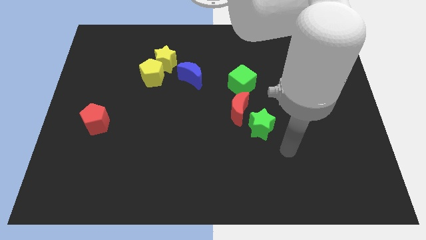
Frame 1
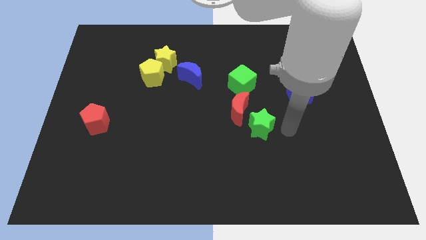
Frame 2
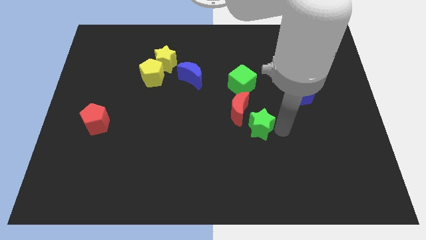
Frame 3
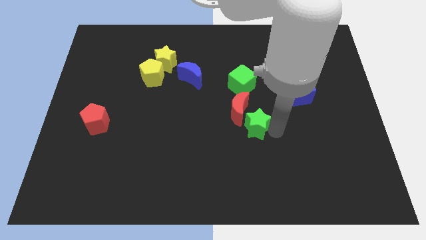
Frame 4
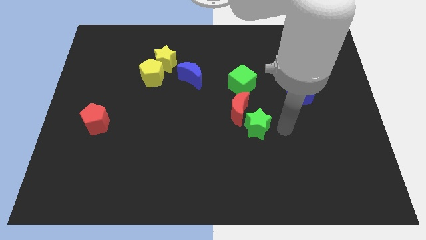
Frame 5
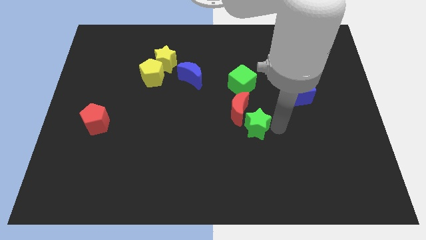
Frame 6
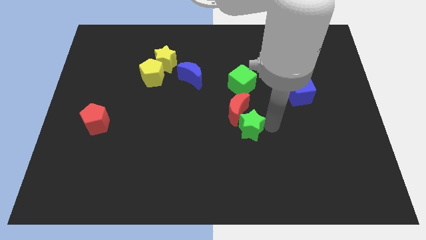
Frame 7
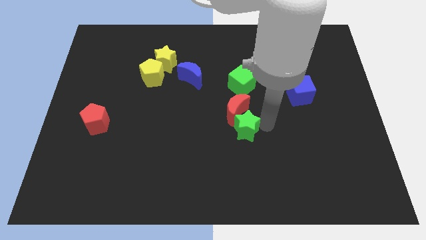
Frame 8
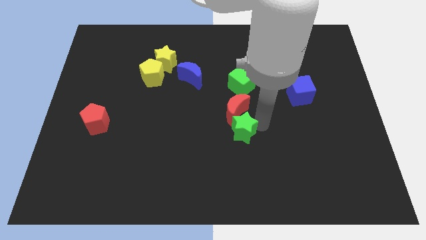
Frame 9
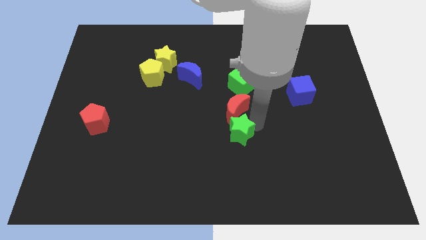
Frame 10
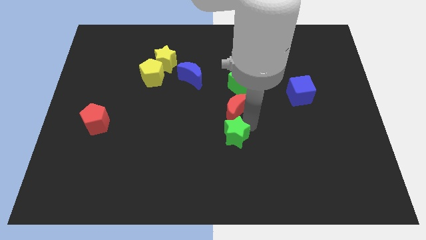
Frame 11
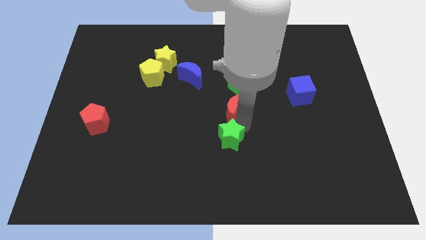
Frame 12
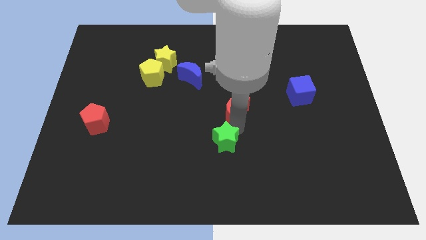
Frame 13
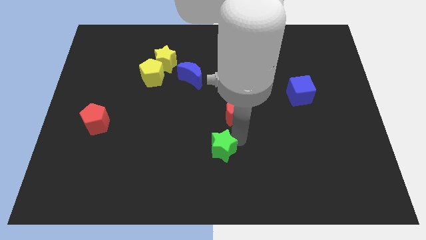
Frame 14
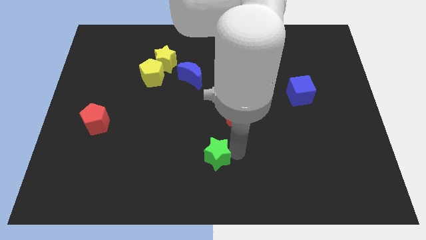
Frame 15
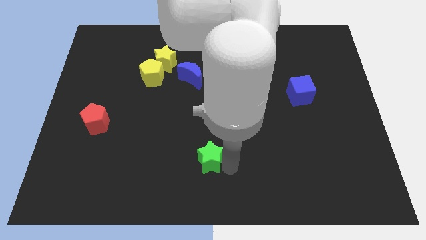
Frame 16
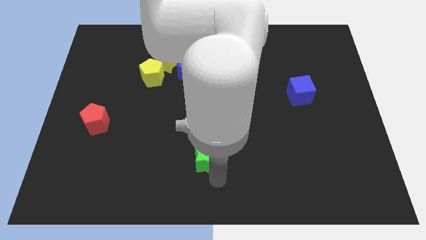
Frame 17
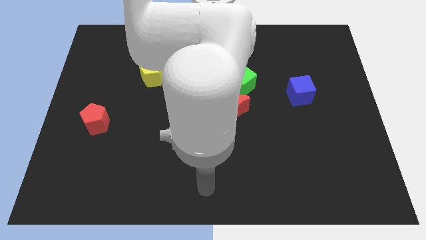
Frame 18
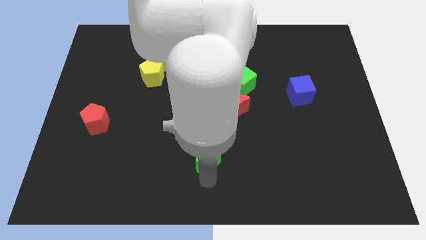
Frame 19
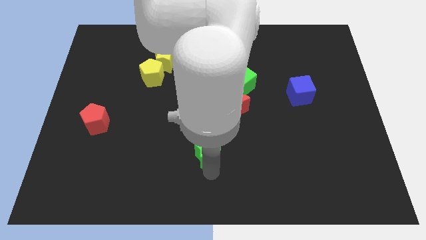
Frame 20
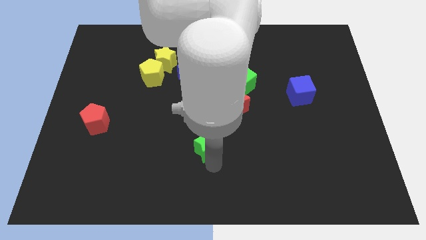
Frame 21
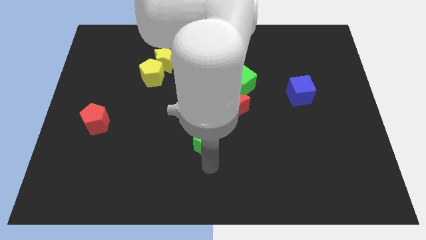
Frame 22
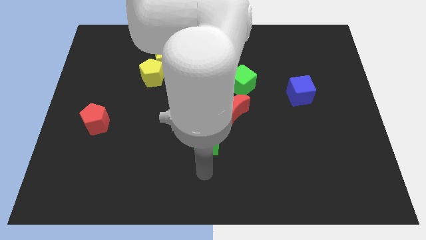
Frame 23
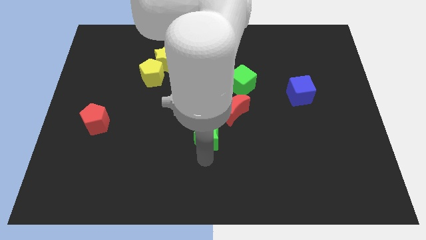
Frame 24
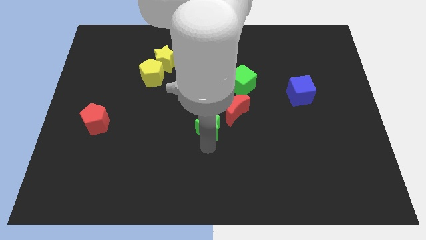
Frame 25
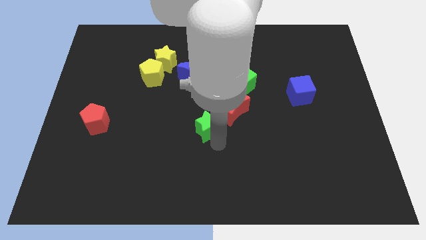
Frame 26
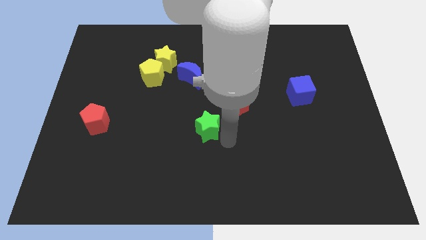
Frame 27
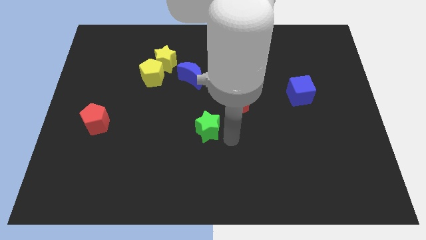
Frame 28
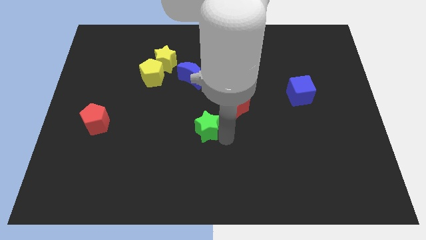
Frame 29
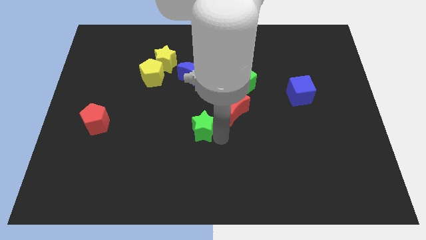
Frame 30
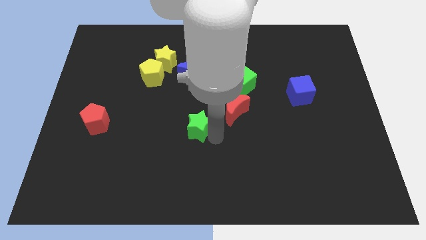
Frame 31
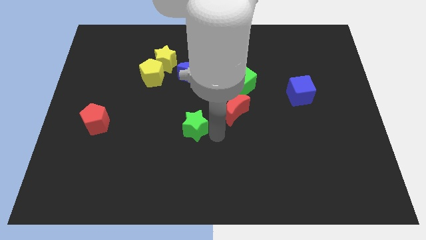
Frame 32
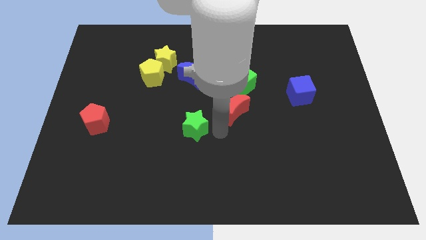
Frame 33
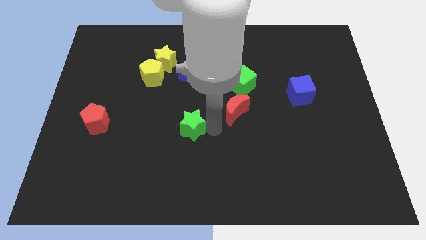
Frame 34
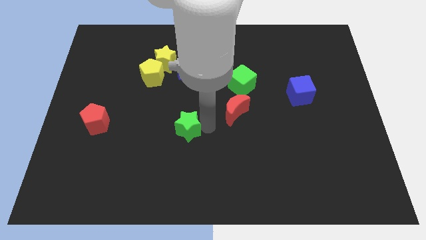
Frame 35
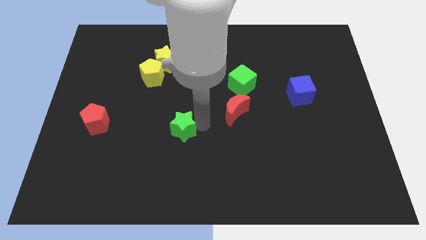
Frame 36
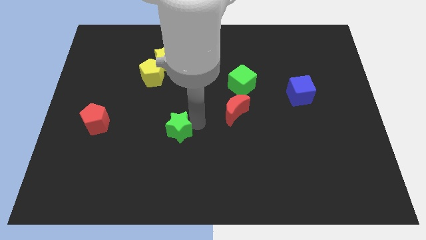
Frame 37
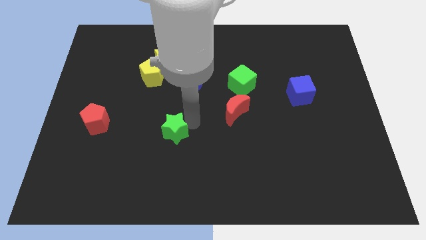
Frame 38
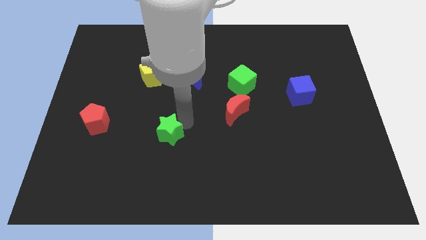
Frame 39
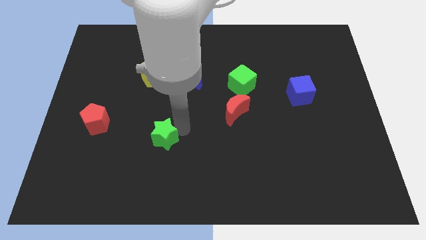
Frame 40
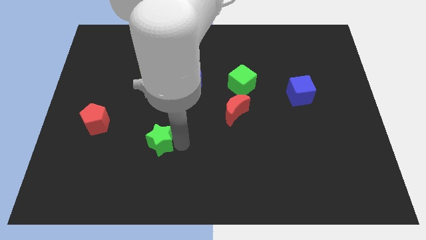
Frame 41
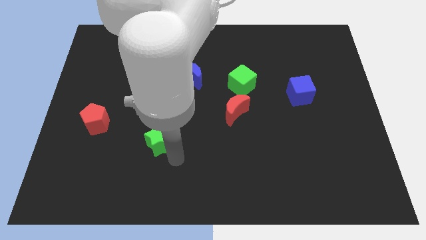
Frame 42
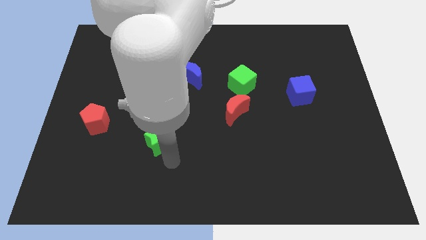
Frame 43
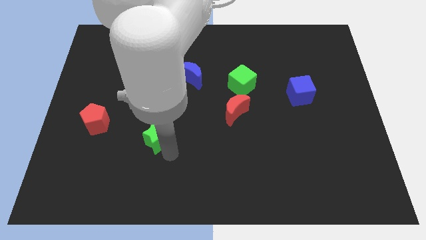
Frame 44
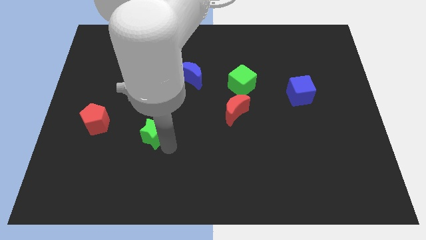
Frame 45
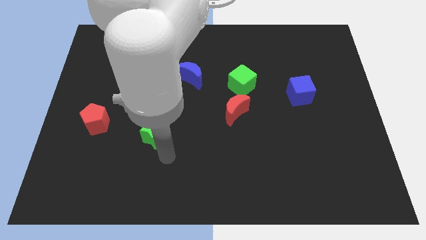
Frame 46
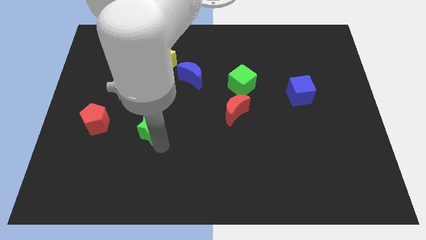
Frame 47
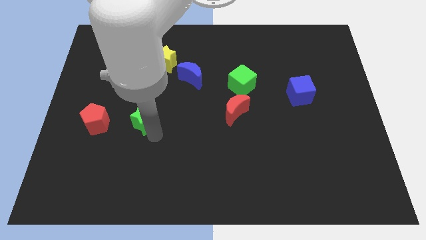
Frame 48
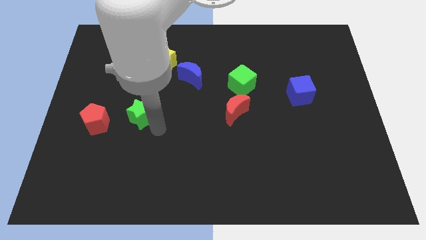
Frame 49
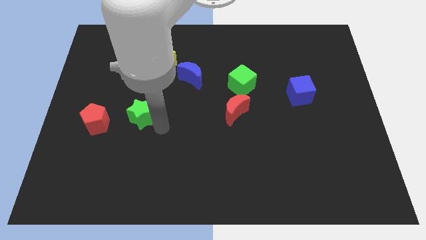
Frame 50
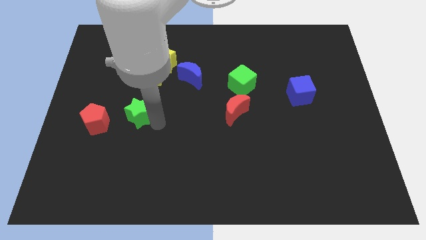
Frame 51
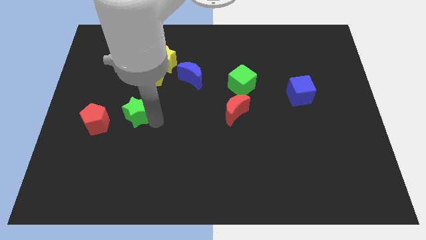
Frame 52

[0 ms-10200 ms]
move the green star diagonally up and to the right of the red pentagon

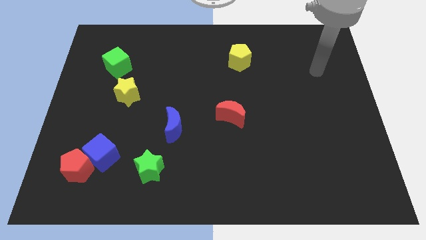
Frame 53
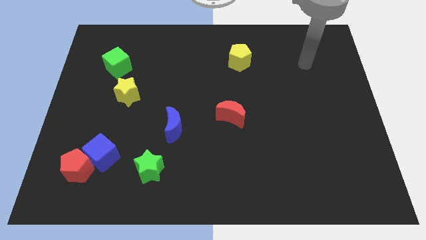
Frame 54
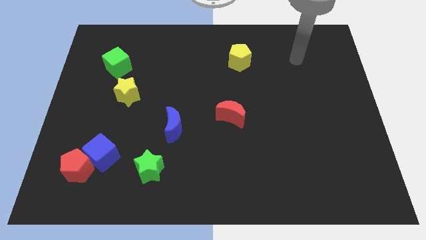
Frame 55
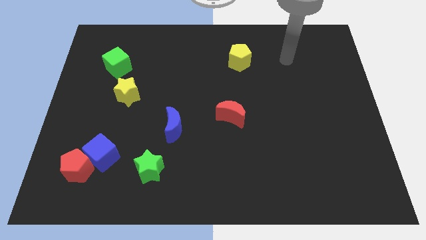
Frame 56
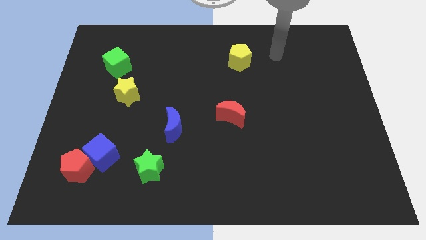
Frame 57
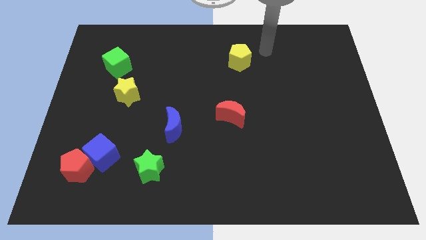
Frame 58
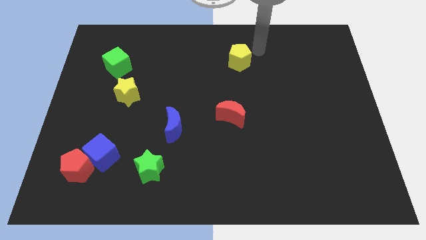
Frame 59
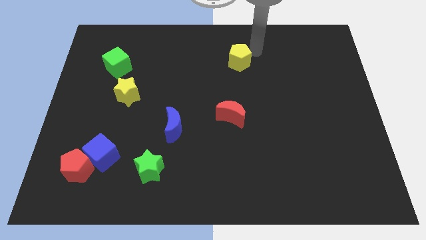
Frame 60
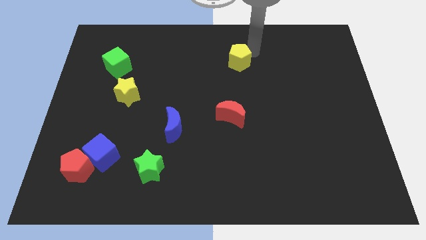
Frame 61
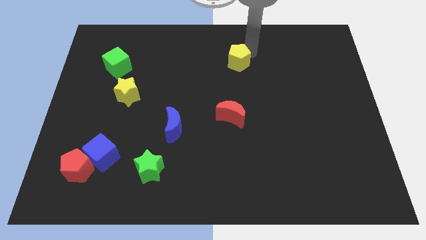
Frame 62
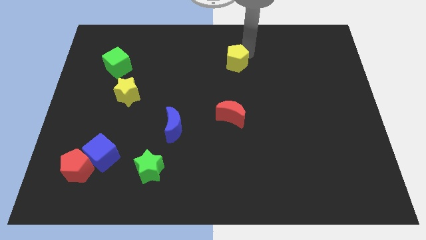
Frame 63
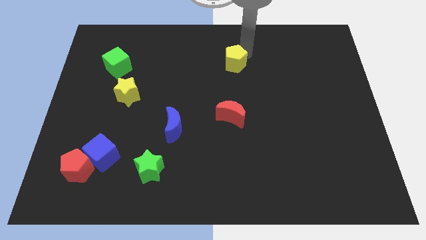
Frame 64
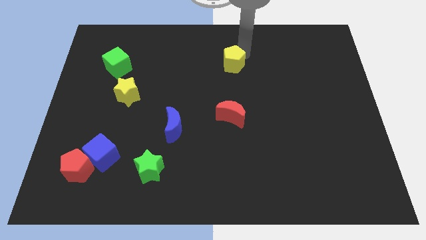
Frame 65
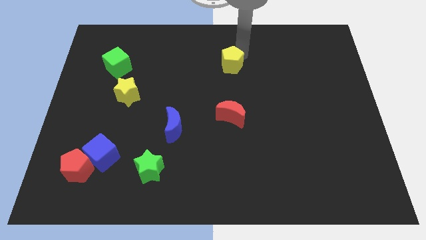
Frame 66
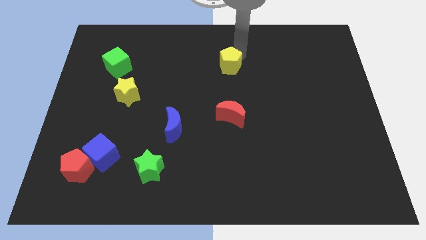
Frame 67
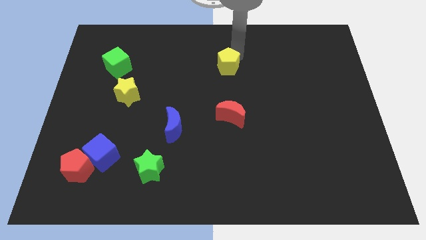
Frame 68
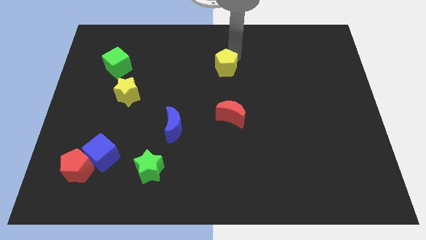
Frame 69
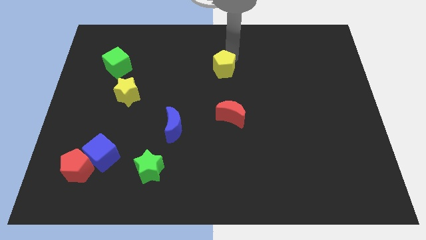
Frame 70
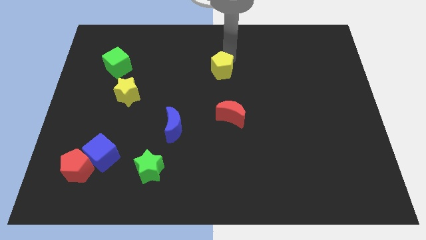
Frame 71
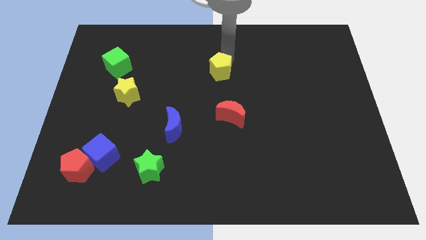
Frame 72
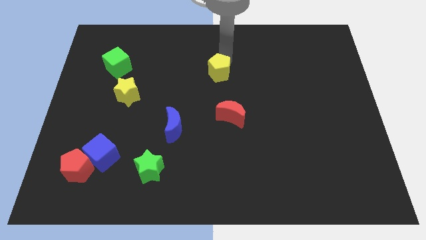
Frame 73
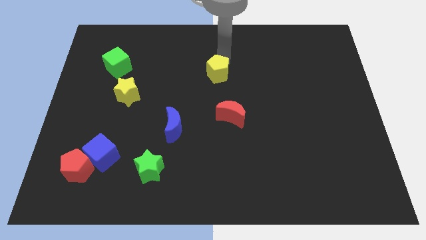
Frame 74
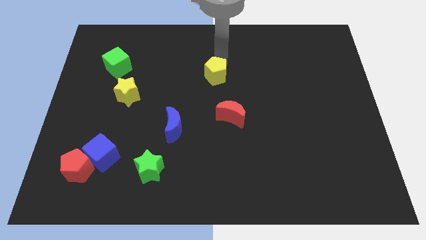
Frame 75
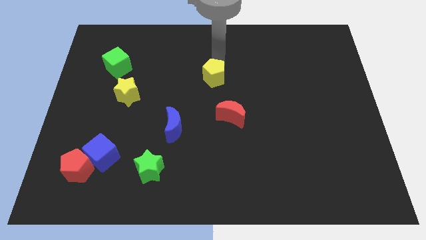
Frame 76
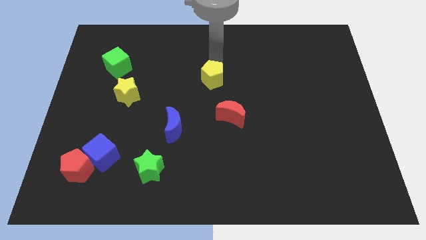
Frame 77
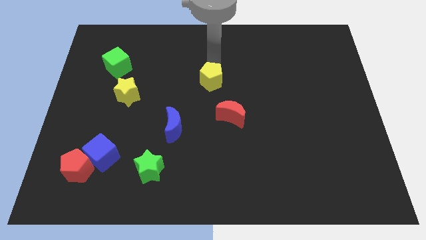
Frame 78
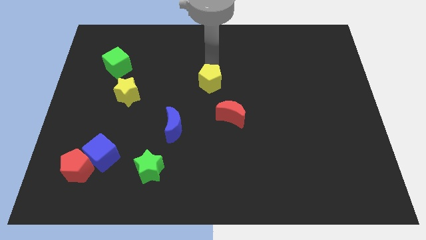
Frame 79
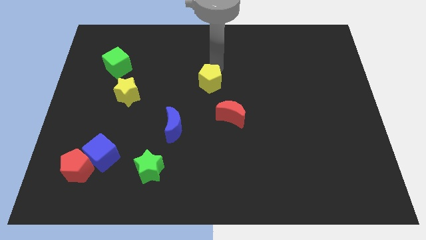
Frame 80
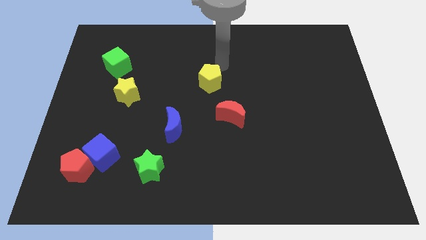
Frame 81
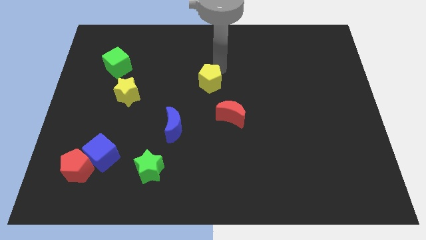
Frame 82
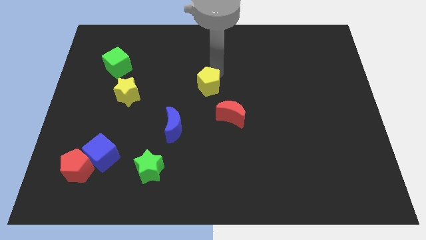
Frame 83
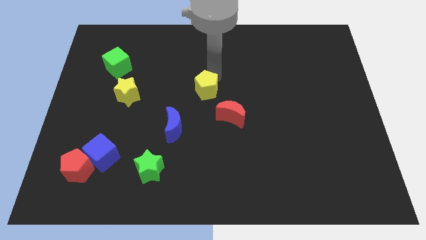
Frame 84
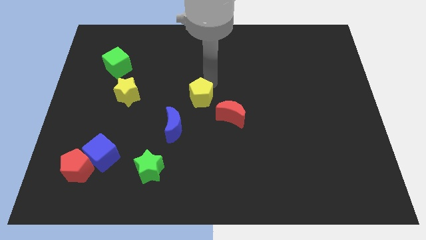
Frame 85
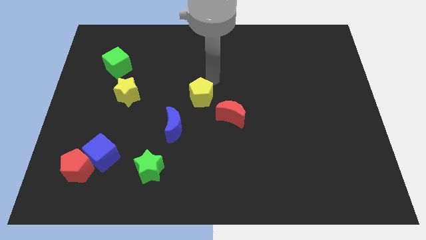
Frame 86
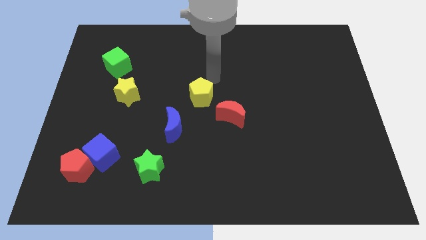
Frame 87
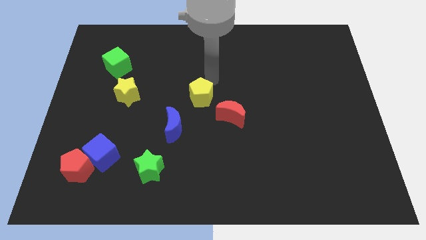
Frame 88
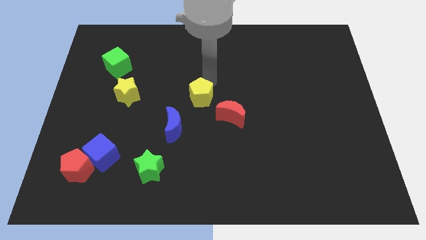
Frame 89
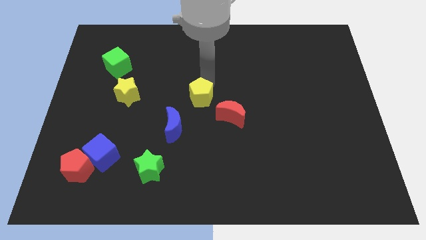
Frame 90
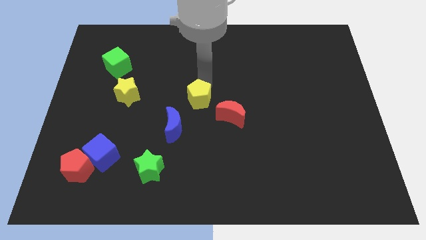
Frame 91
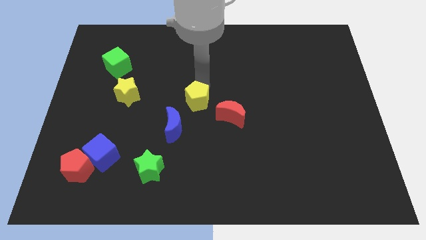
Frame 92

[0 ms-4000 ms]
slide the yellow pentagon to the left side of the red moon
